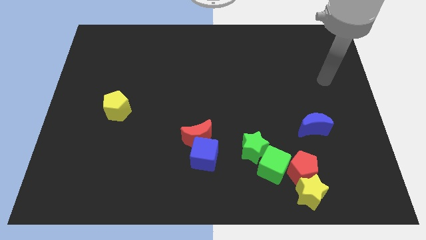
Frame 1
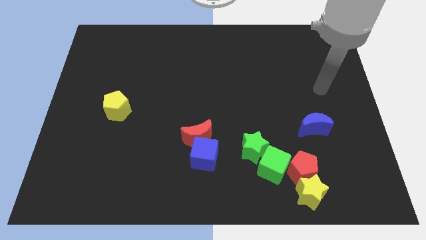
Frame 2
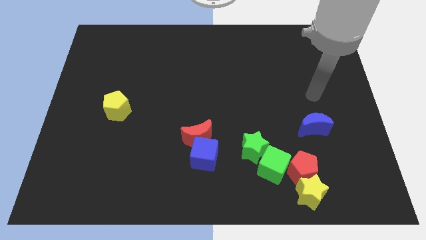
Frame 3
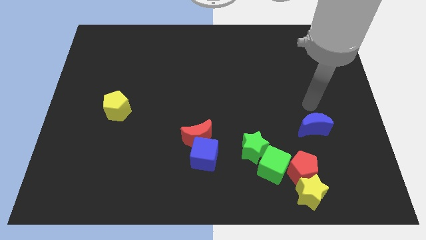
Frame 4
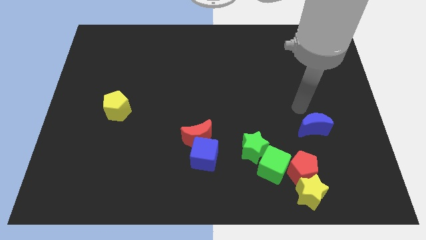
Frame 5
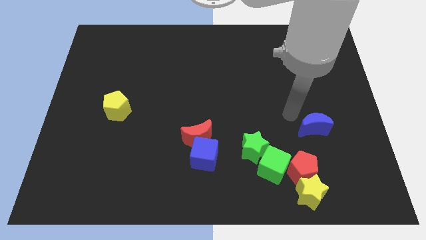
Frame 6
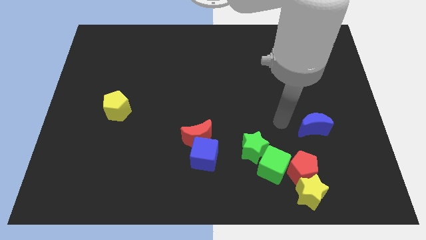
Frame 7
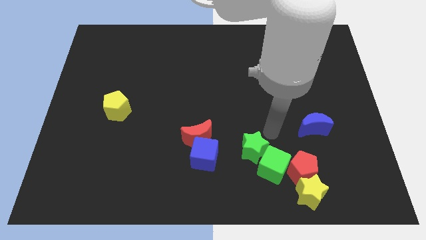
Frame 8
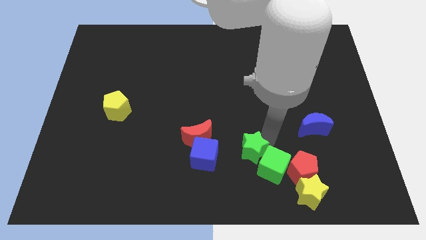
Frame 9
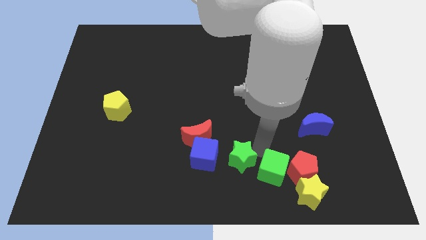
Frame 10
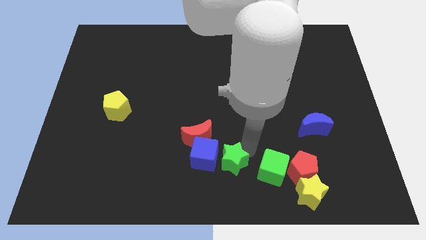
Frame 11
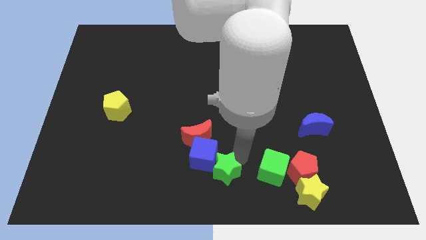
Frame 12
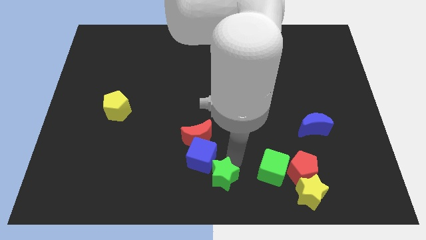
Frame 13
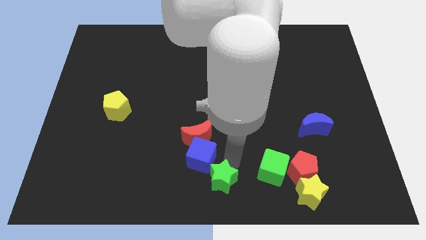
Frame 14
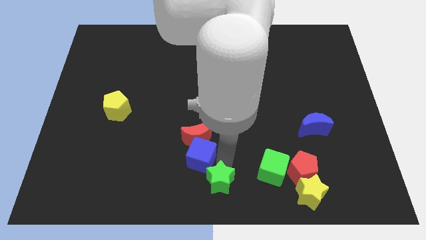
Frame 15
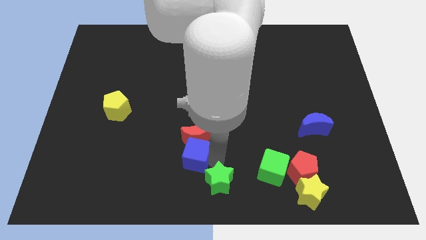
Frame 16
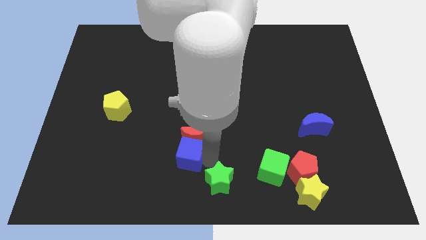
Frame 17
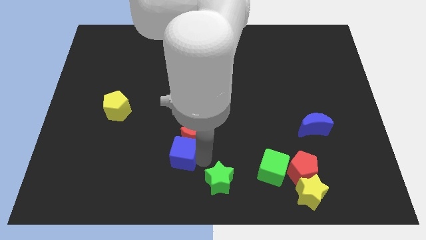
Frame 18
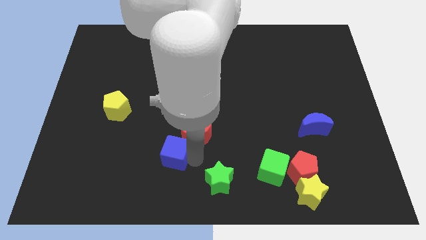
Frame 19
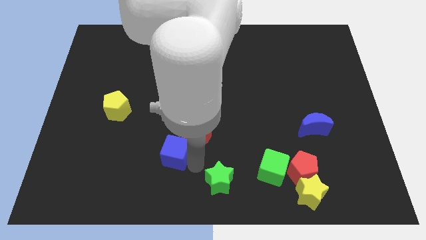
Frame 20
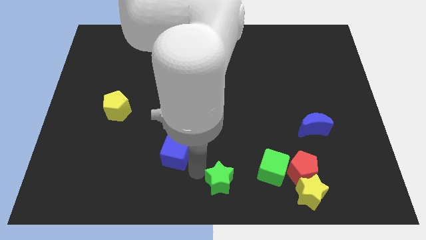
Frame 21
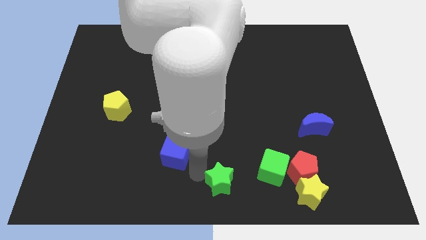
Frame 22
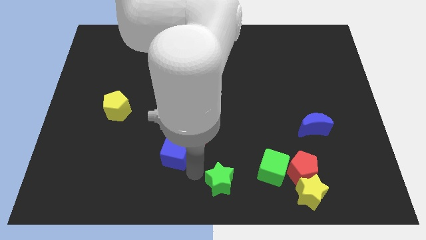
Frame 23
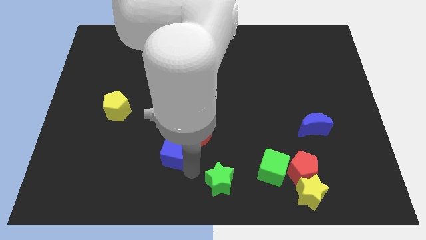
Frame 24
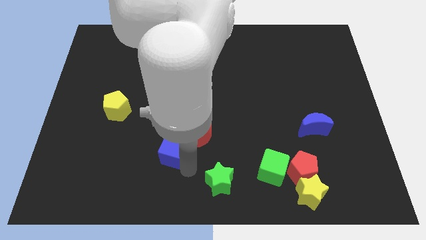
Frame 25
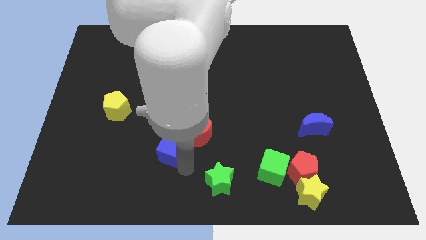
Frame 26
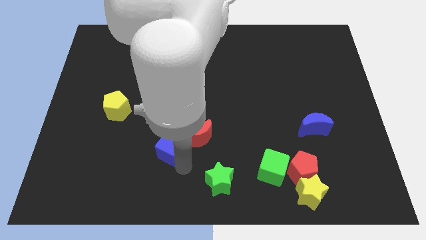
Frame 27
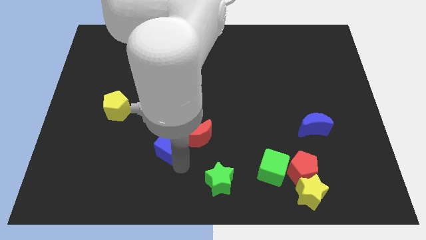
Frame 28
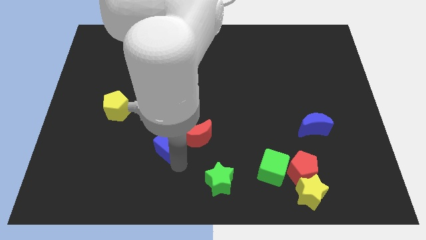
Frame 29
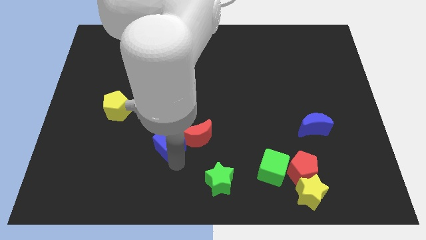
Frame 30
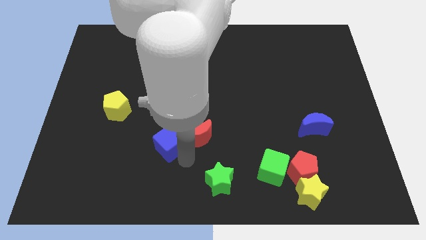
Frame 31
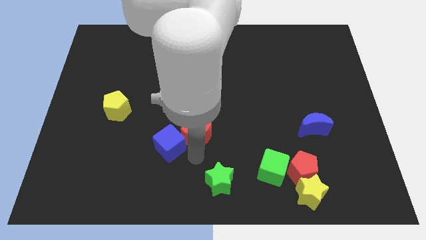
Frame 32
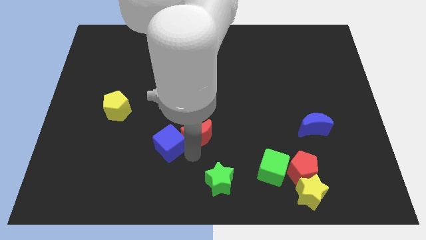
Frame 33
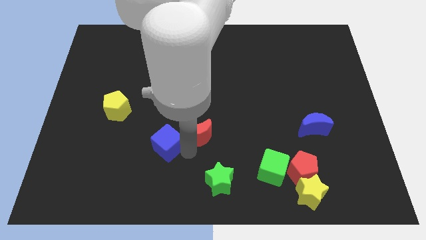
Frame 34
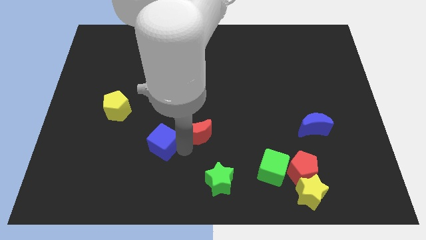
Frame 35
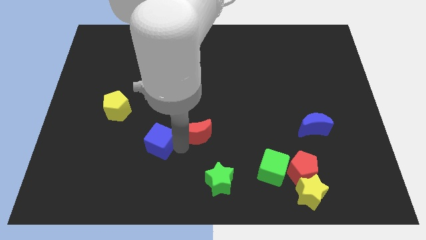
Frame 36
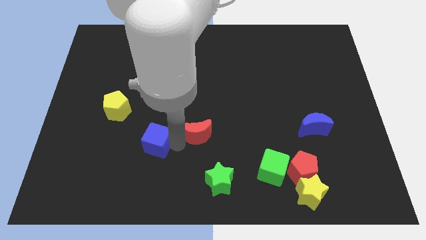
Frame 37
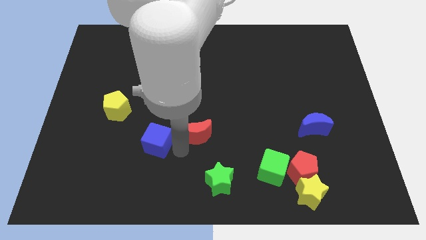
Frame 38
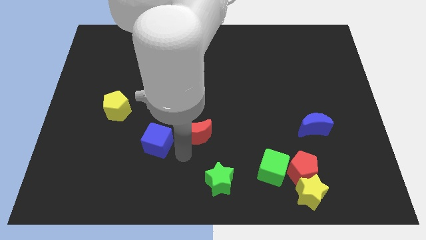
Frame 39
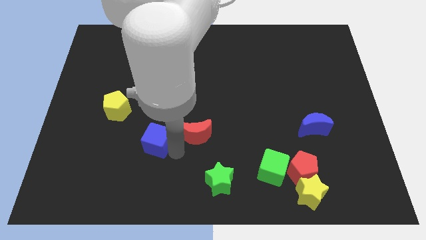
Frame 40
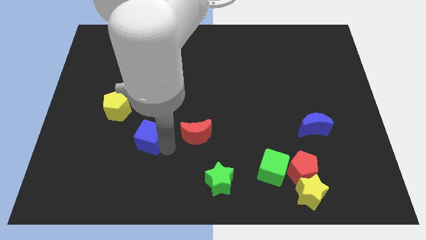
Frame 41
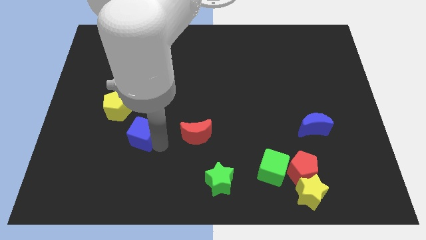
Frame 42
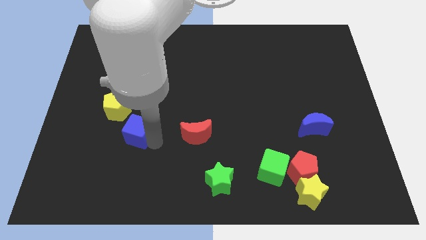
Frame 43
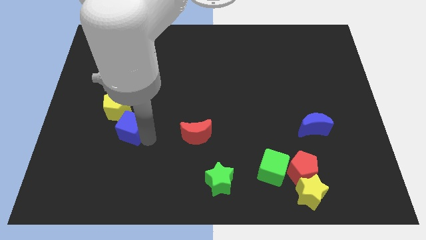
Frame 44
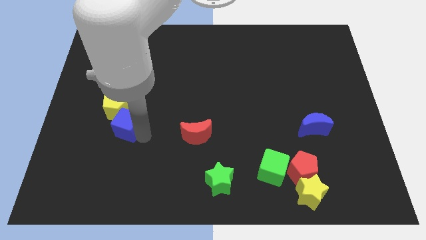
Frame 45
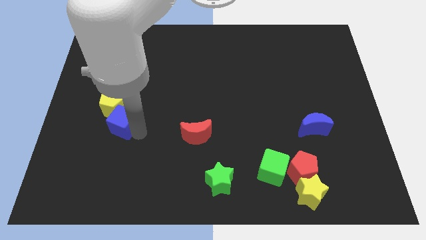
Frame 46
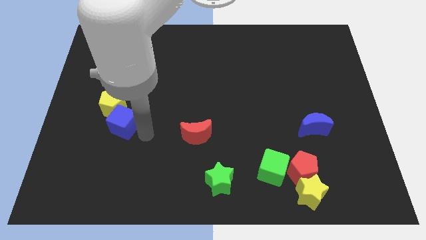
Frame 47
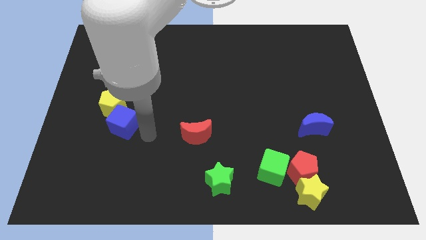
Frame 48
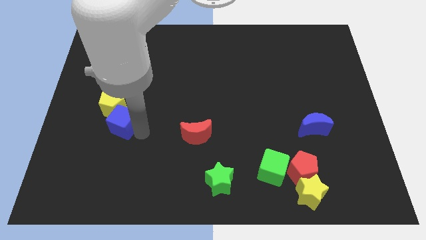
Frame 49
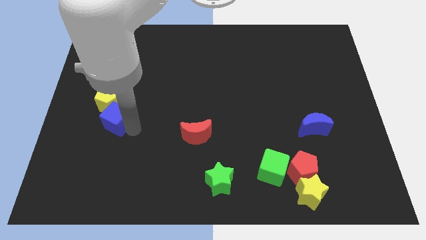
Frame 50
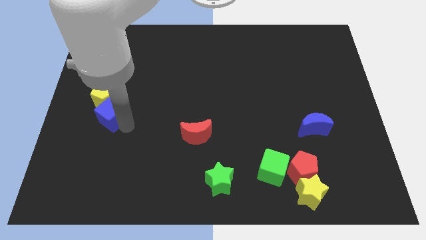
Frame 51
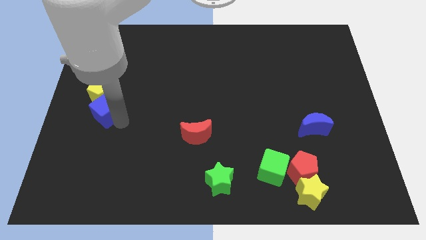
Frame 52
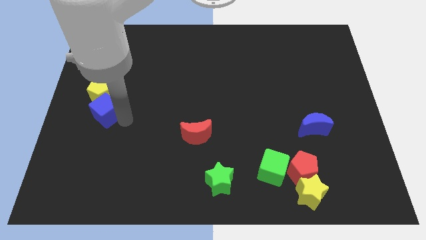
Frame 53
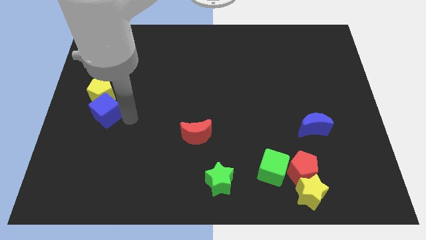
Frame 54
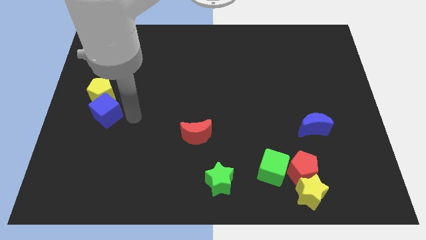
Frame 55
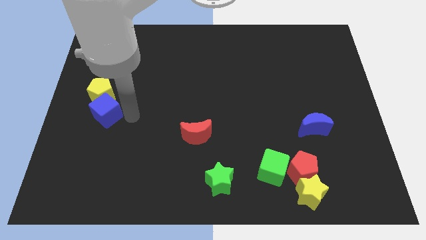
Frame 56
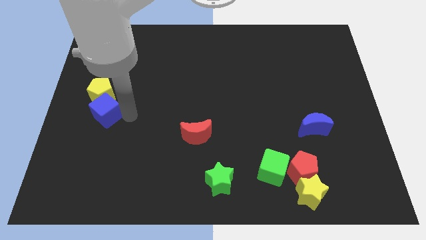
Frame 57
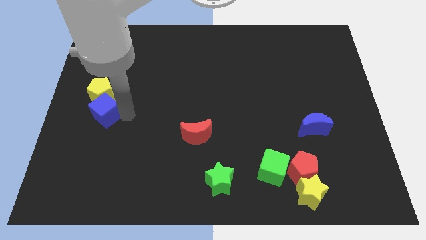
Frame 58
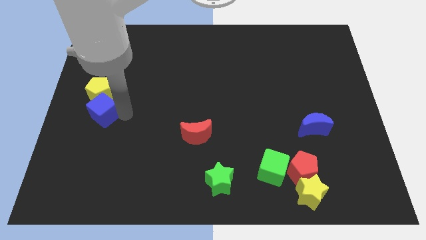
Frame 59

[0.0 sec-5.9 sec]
put the blue cube to the center left

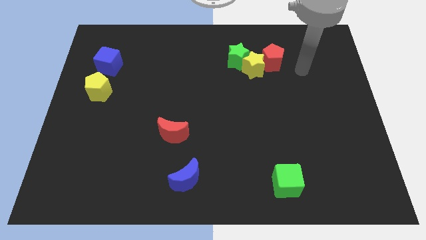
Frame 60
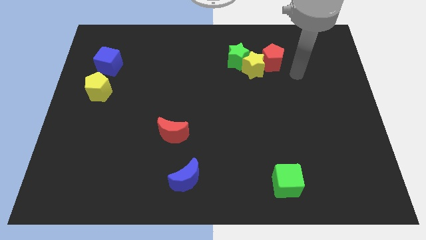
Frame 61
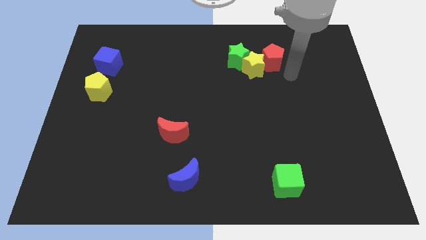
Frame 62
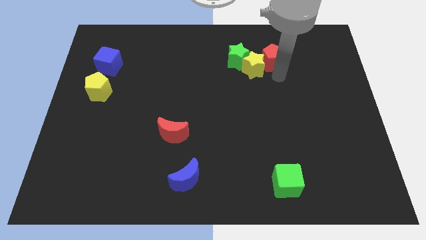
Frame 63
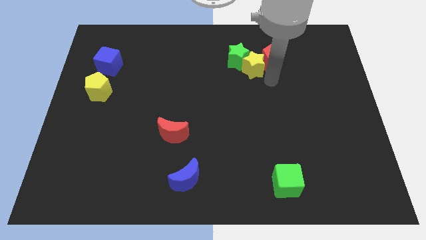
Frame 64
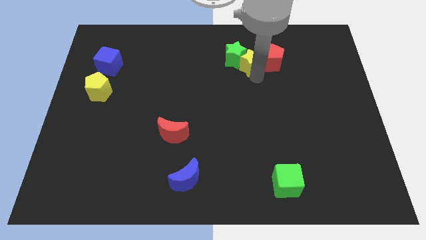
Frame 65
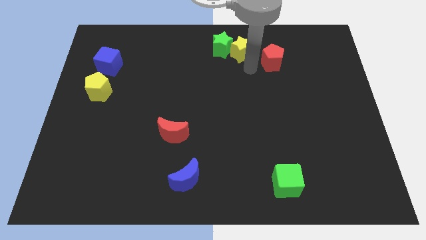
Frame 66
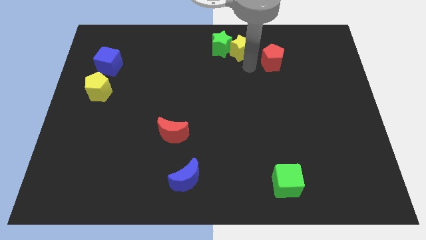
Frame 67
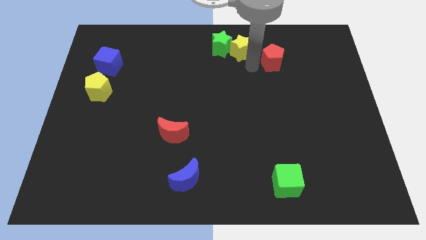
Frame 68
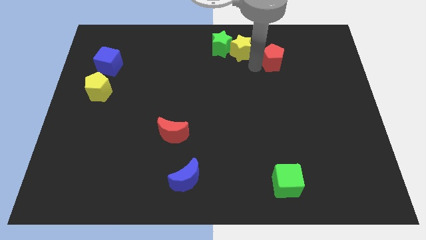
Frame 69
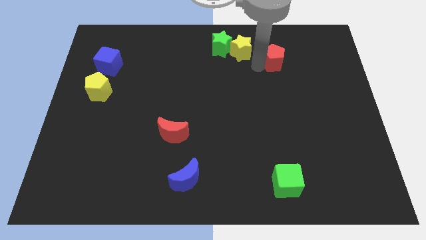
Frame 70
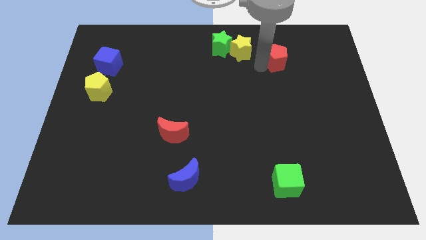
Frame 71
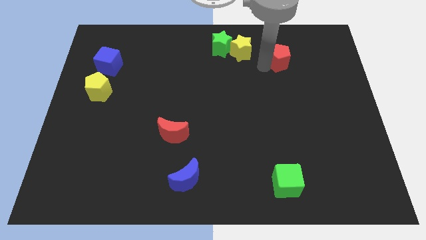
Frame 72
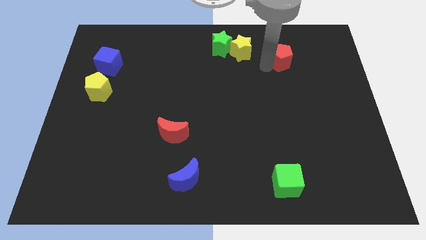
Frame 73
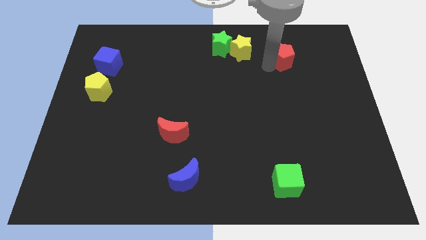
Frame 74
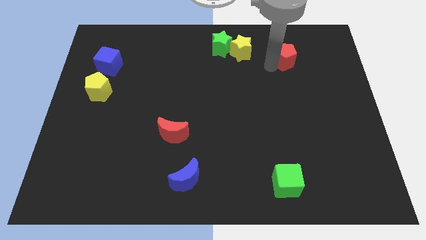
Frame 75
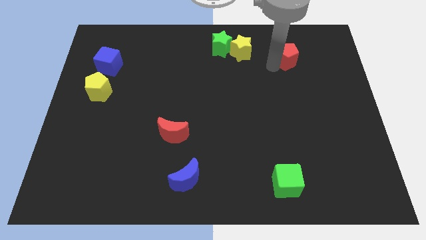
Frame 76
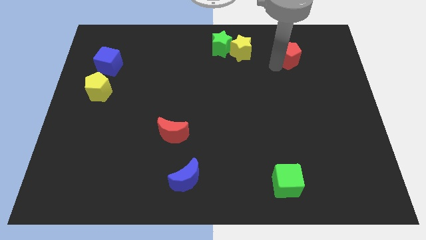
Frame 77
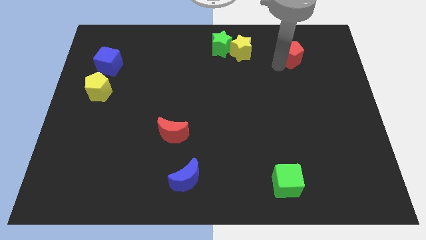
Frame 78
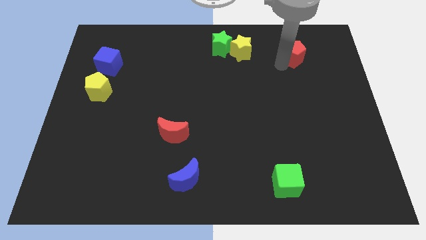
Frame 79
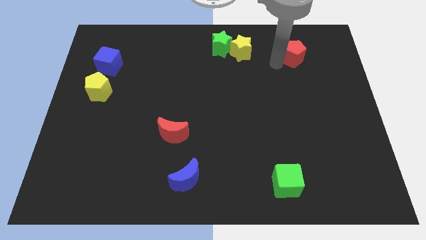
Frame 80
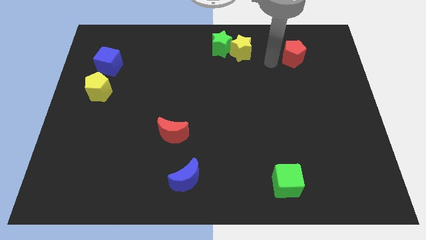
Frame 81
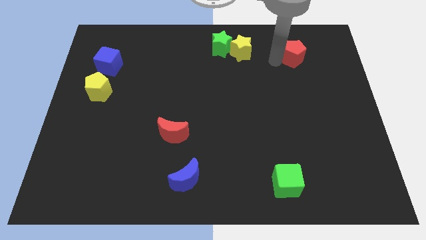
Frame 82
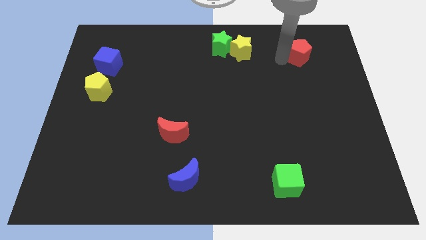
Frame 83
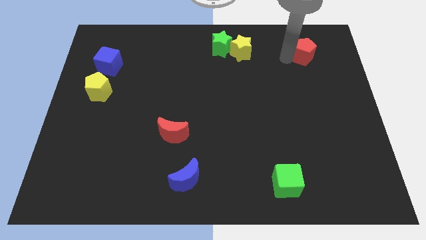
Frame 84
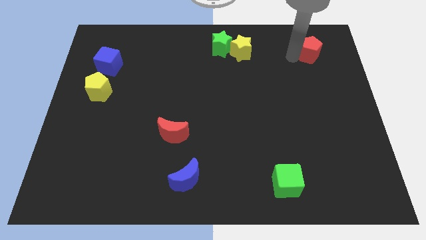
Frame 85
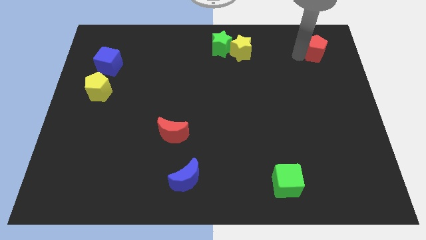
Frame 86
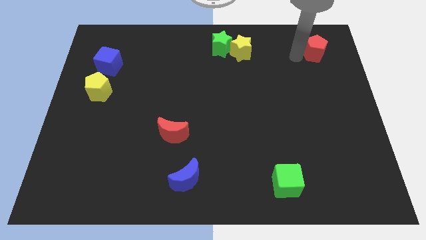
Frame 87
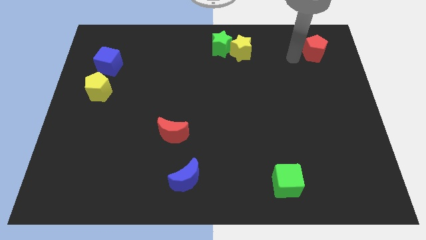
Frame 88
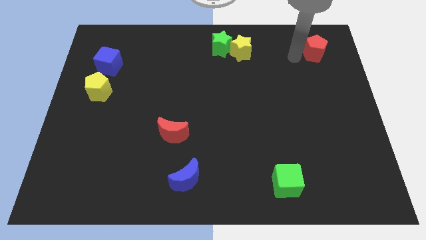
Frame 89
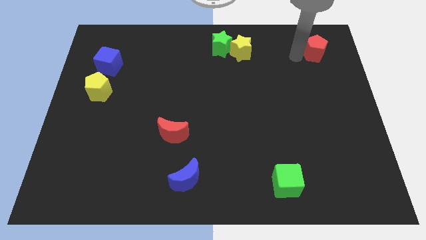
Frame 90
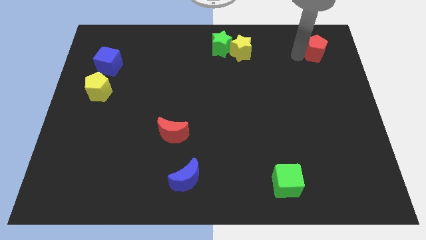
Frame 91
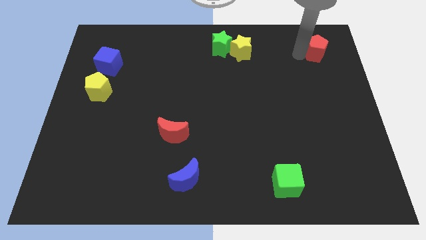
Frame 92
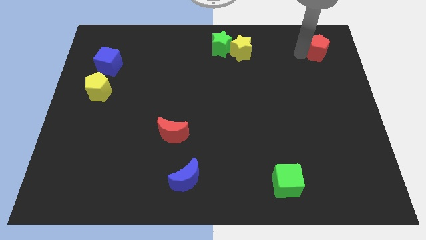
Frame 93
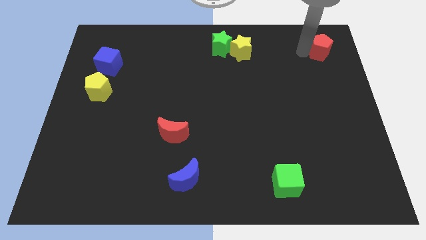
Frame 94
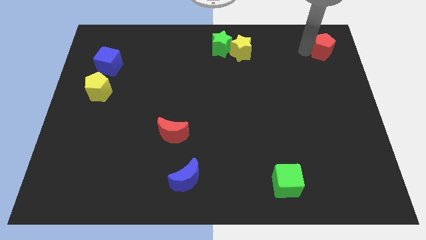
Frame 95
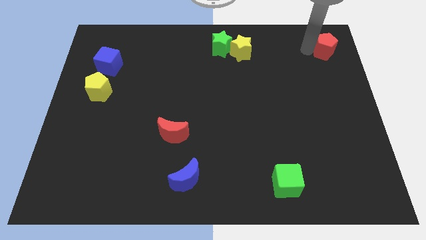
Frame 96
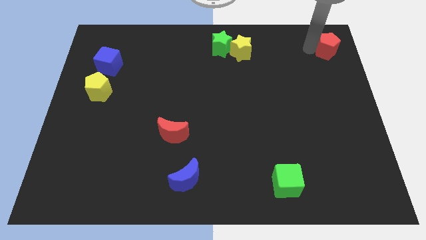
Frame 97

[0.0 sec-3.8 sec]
move the red pentagon to the top right corner
